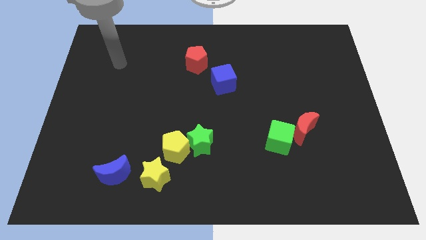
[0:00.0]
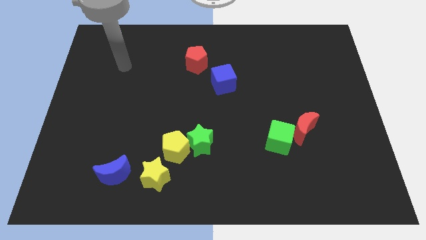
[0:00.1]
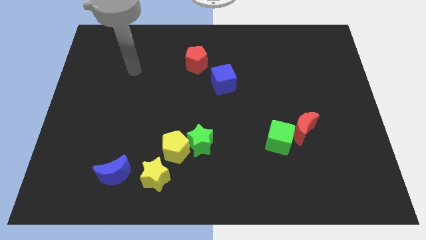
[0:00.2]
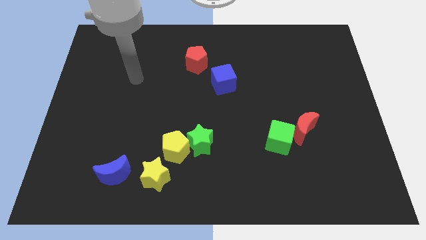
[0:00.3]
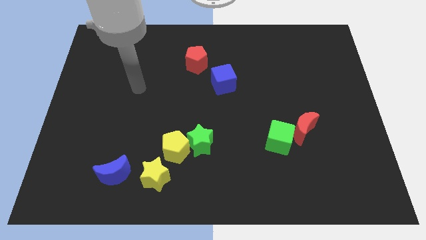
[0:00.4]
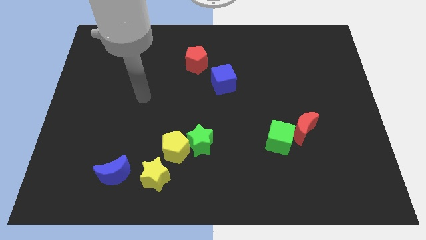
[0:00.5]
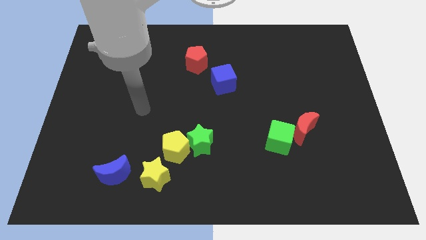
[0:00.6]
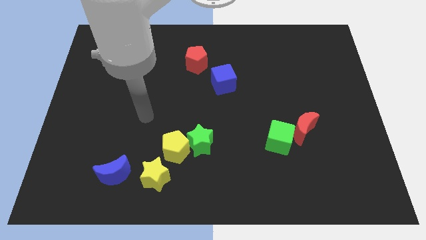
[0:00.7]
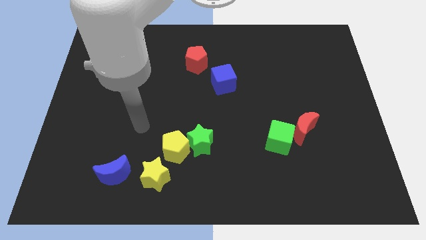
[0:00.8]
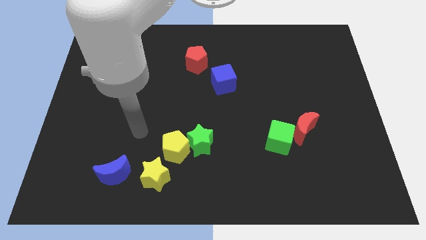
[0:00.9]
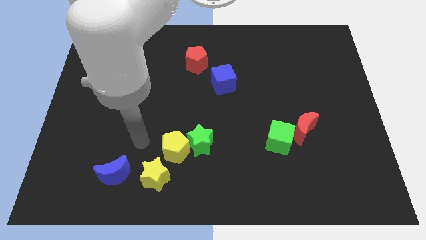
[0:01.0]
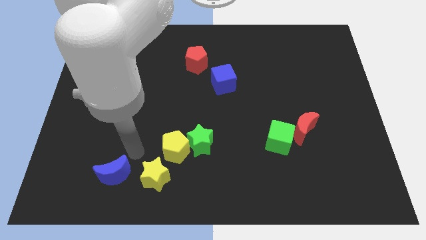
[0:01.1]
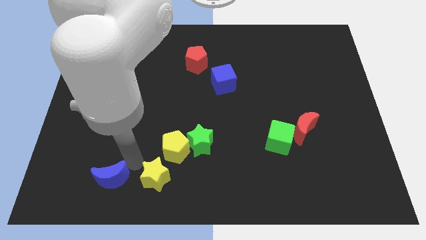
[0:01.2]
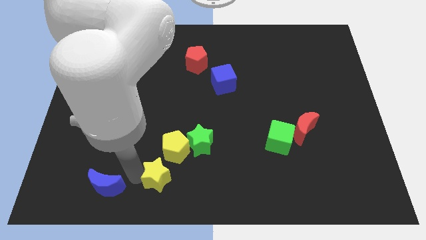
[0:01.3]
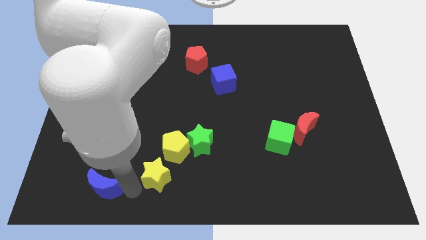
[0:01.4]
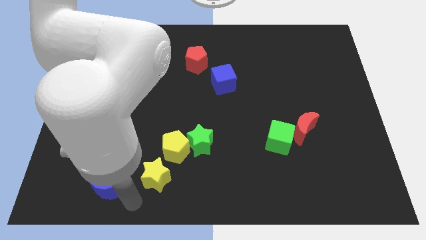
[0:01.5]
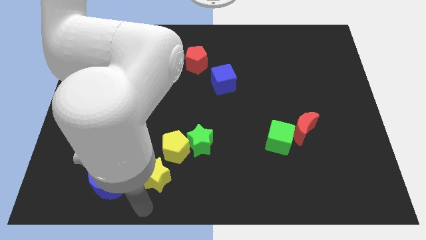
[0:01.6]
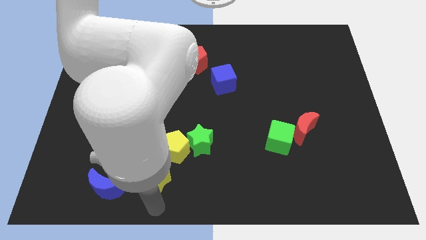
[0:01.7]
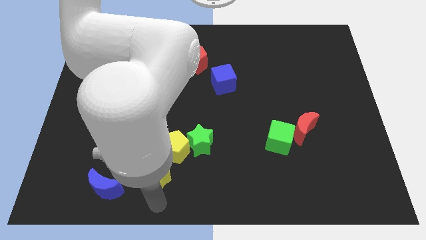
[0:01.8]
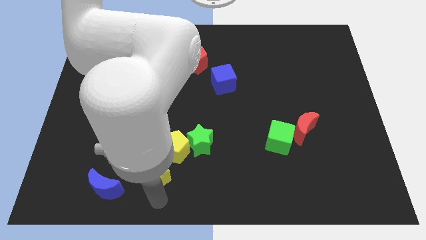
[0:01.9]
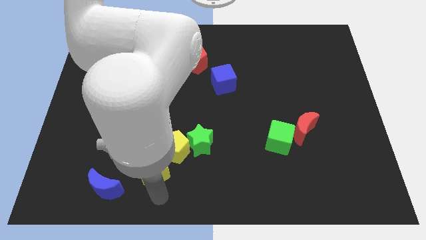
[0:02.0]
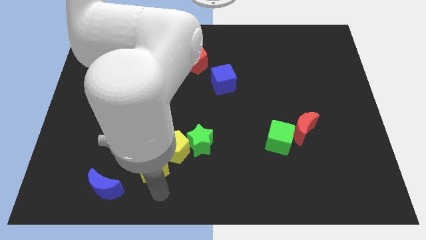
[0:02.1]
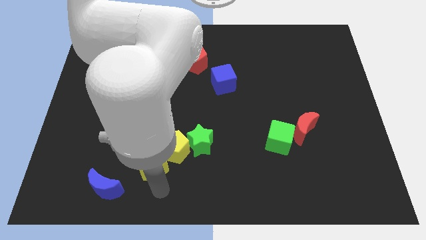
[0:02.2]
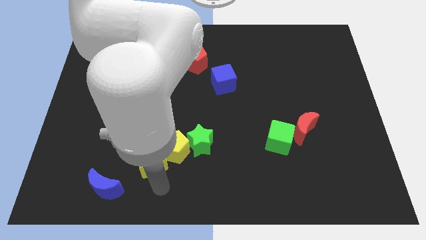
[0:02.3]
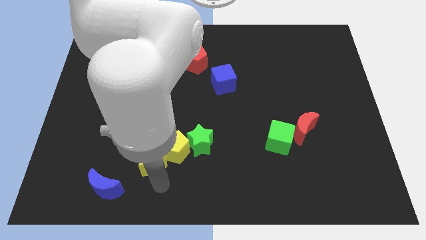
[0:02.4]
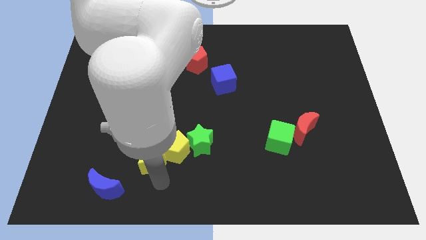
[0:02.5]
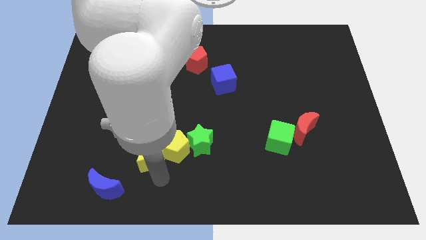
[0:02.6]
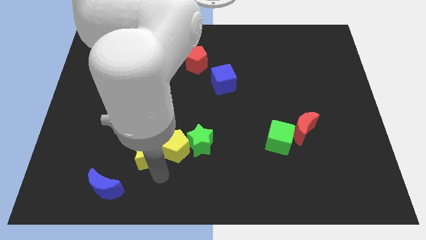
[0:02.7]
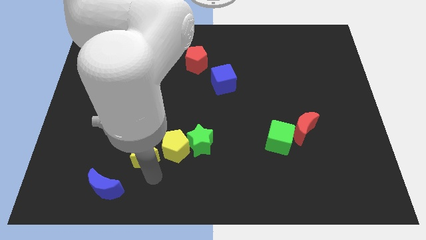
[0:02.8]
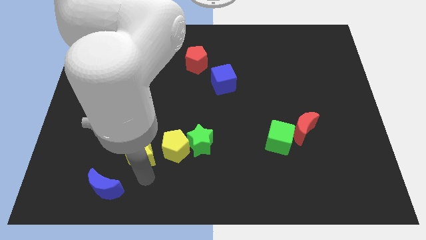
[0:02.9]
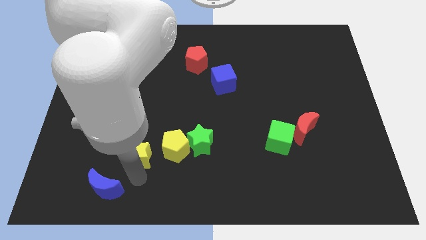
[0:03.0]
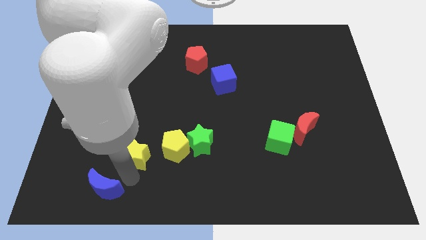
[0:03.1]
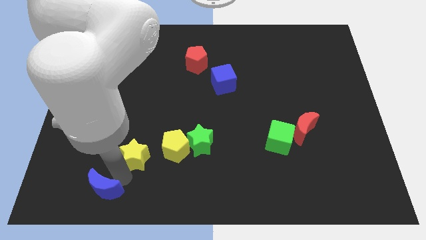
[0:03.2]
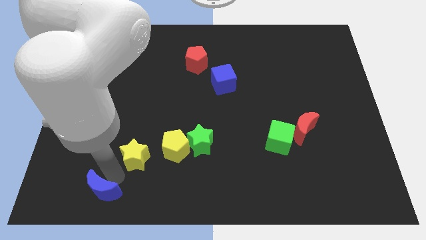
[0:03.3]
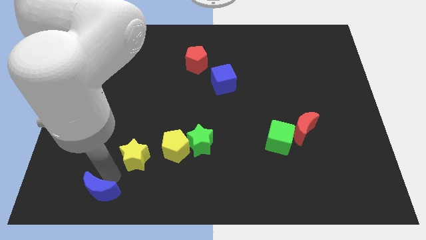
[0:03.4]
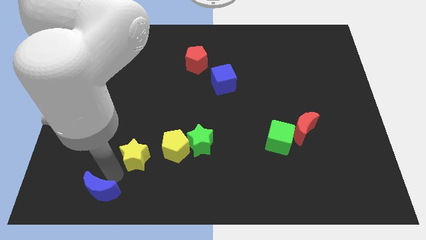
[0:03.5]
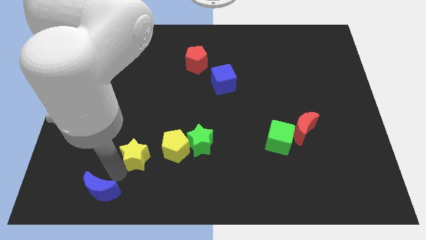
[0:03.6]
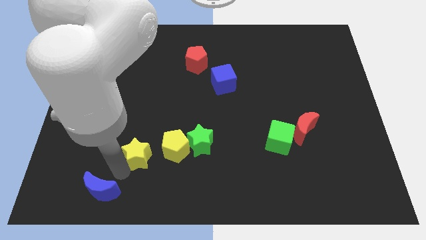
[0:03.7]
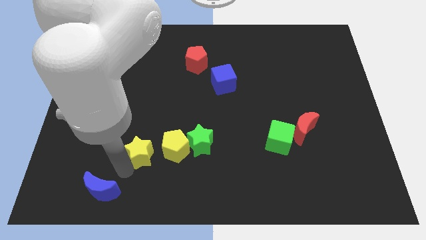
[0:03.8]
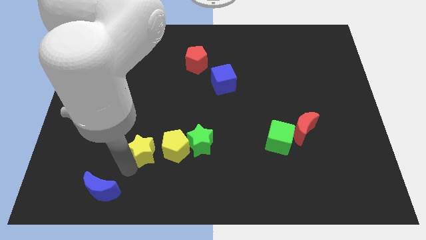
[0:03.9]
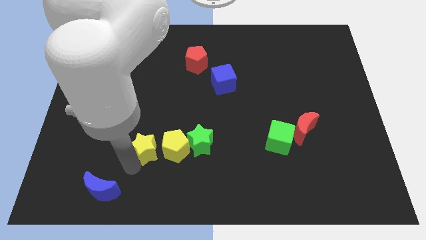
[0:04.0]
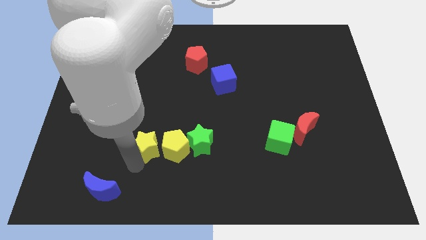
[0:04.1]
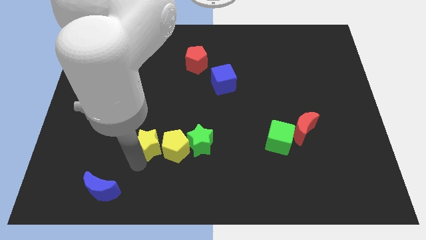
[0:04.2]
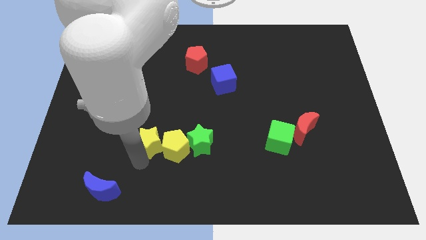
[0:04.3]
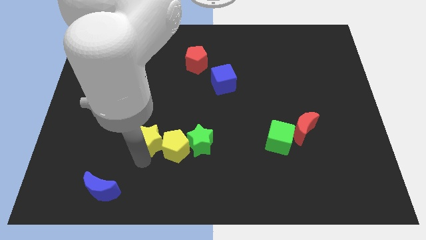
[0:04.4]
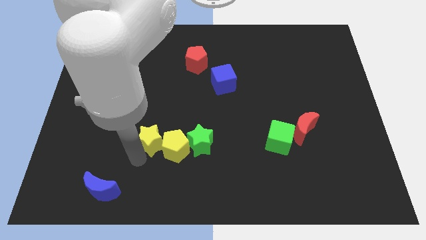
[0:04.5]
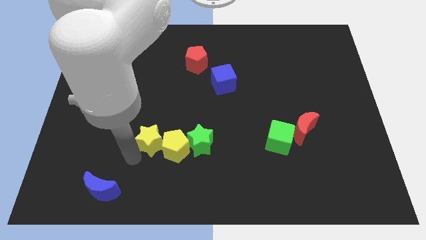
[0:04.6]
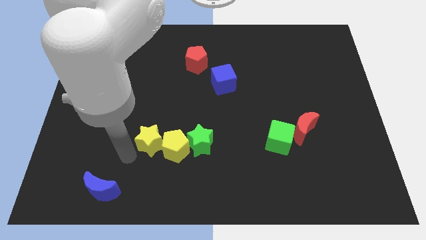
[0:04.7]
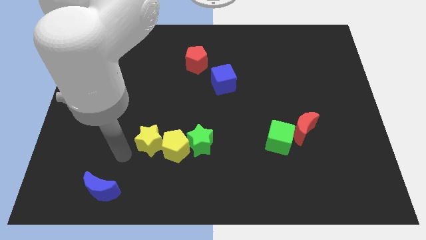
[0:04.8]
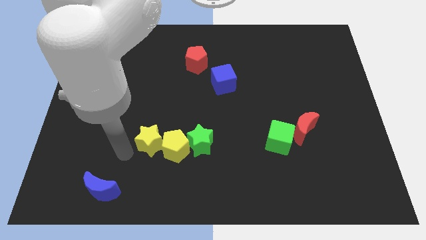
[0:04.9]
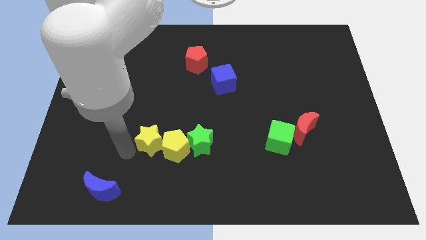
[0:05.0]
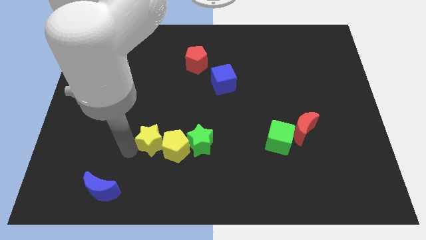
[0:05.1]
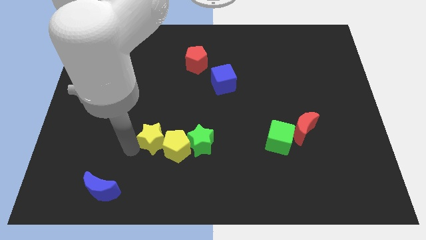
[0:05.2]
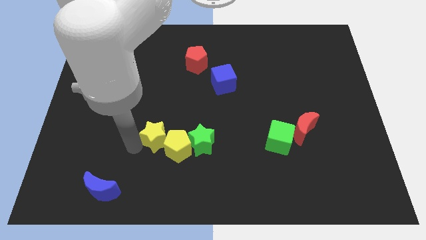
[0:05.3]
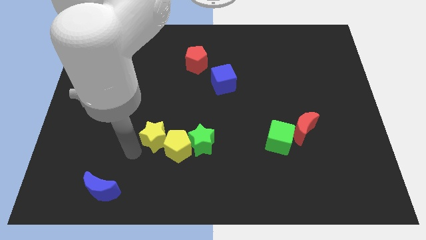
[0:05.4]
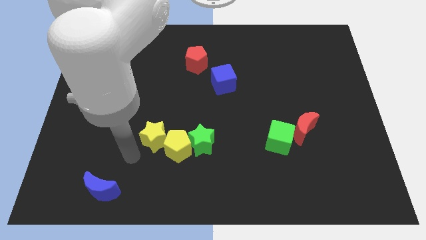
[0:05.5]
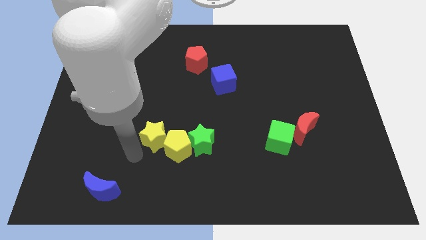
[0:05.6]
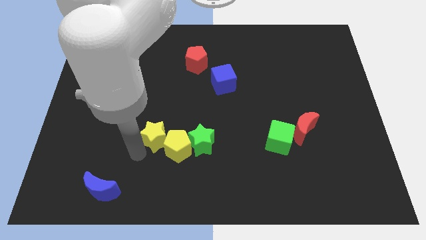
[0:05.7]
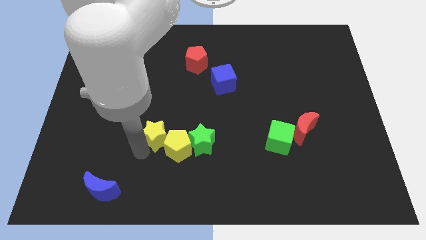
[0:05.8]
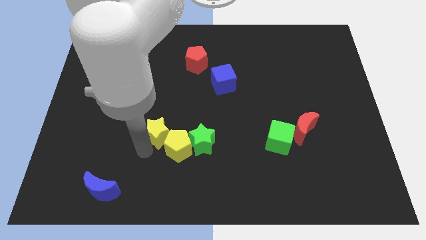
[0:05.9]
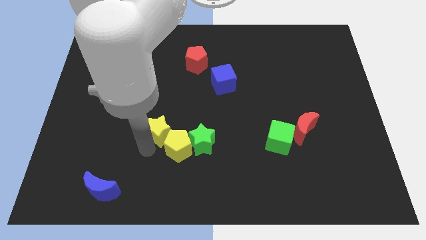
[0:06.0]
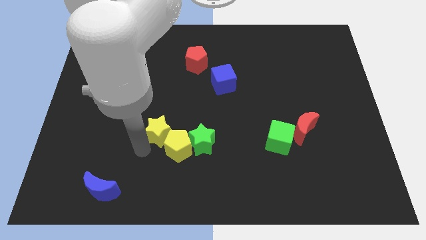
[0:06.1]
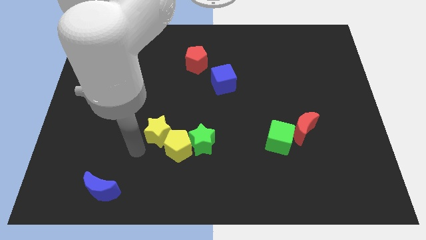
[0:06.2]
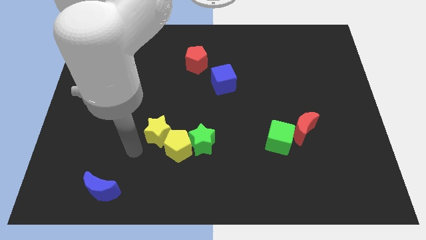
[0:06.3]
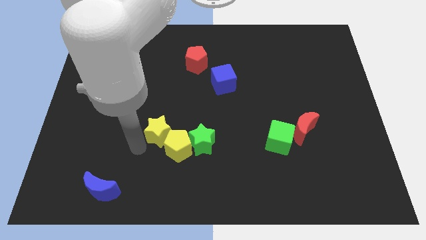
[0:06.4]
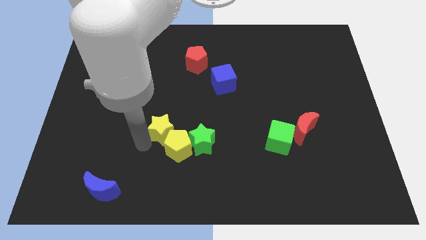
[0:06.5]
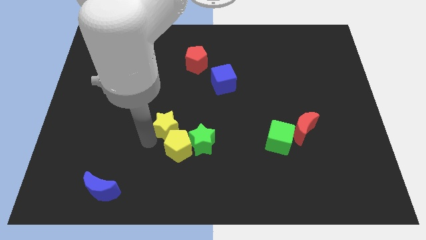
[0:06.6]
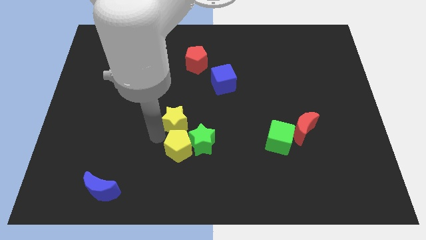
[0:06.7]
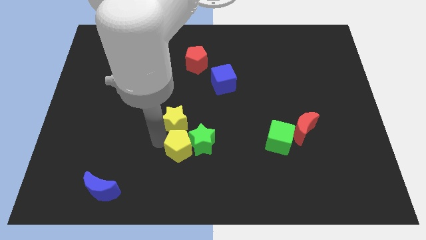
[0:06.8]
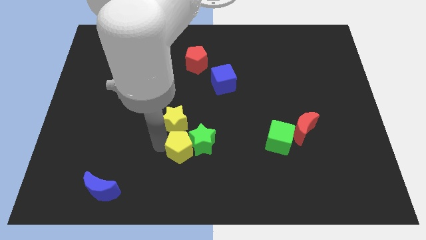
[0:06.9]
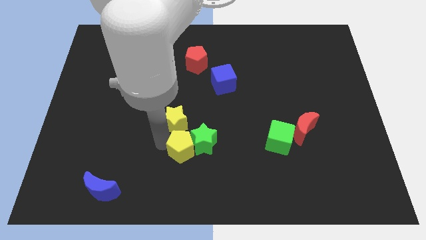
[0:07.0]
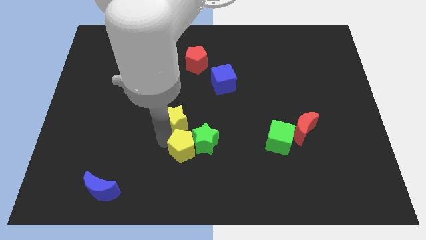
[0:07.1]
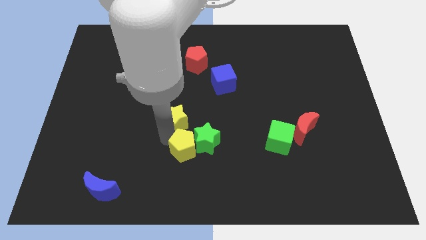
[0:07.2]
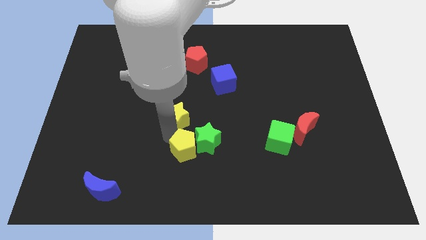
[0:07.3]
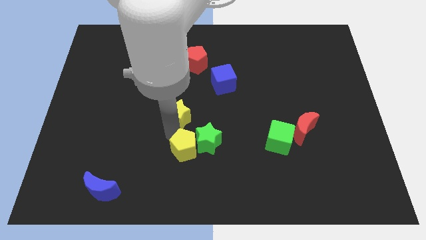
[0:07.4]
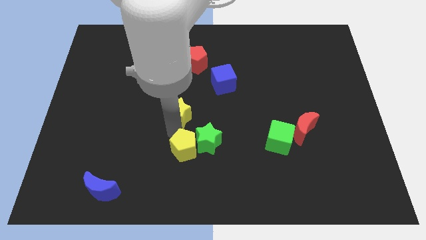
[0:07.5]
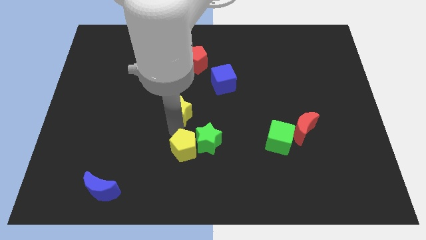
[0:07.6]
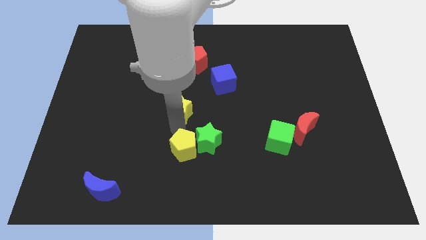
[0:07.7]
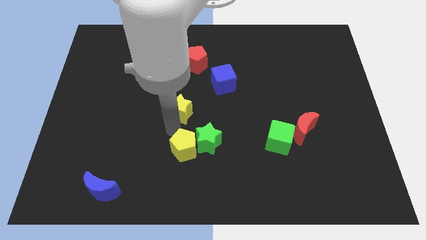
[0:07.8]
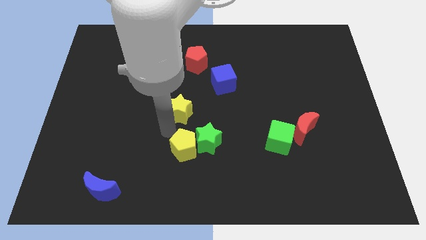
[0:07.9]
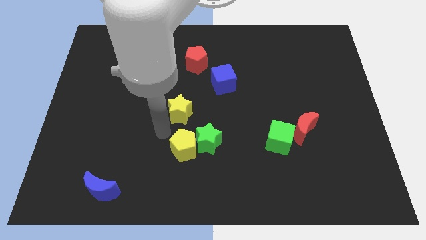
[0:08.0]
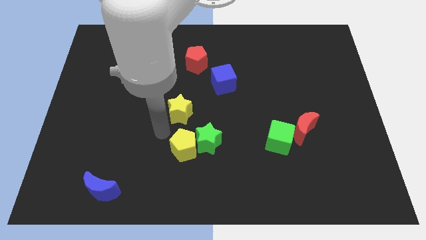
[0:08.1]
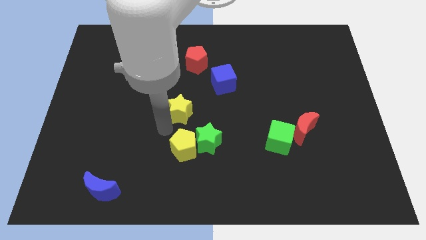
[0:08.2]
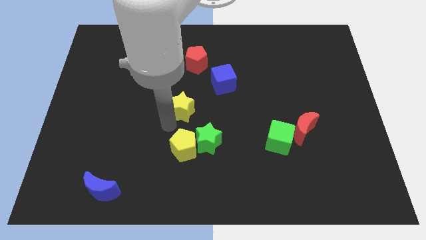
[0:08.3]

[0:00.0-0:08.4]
slide the yellow star to the bottom of the red pentagon
